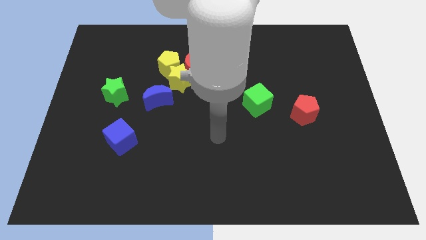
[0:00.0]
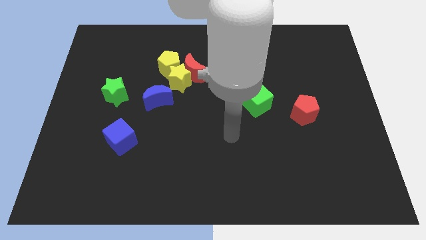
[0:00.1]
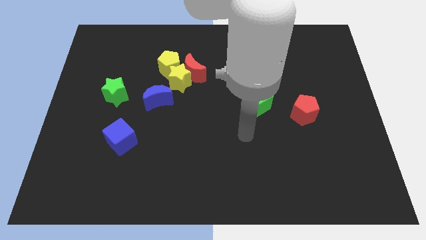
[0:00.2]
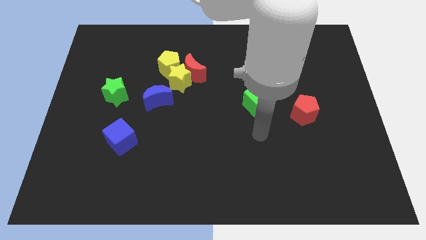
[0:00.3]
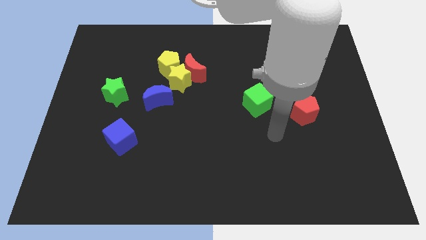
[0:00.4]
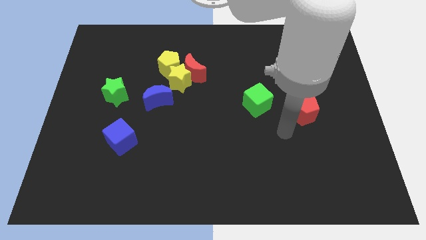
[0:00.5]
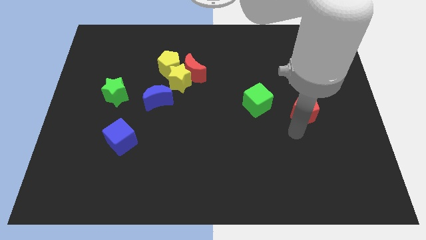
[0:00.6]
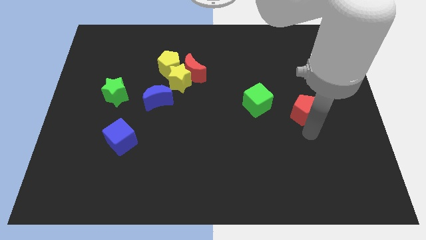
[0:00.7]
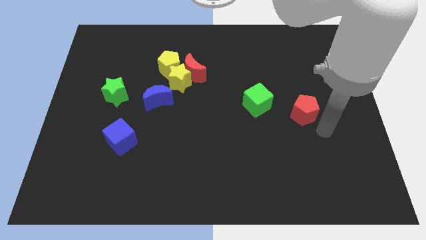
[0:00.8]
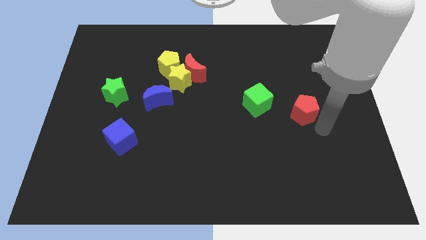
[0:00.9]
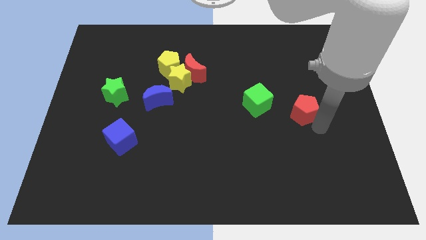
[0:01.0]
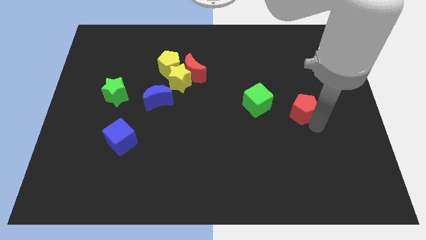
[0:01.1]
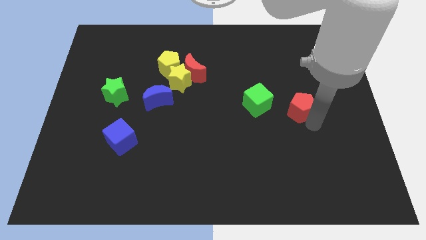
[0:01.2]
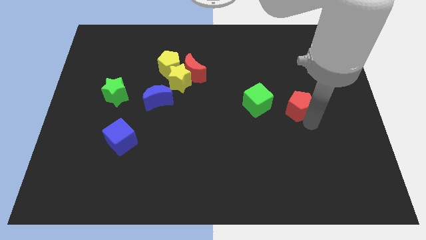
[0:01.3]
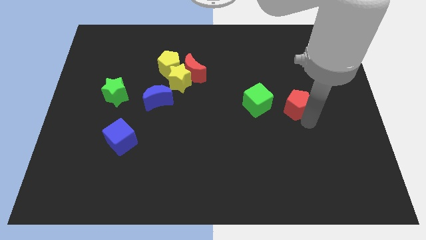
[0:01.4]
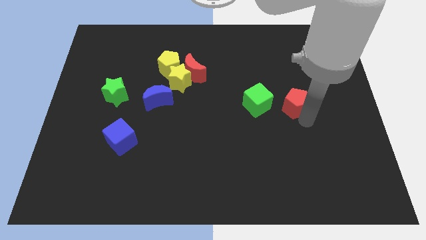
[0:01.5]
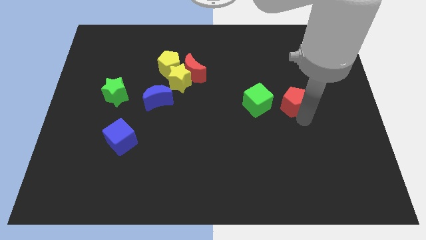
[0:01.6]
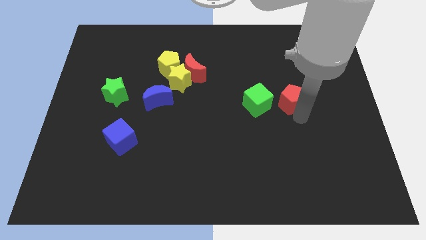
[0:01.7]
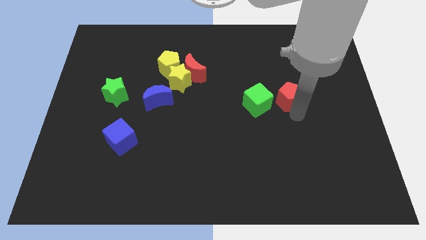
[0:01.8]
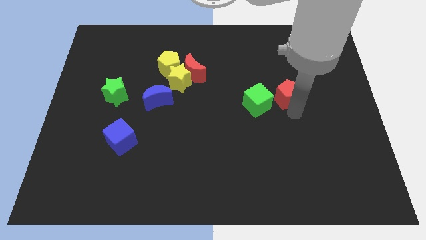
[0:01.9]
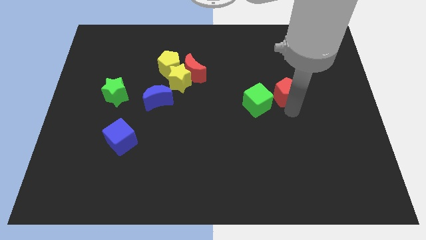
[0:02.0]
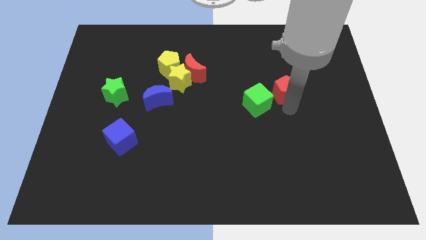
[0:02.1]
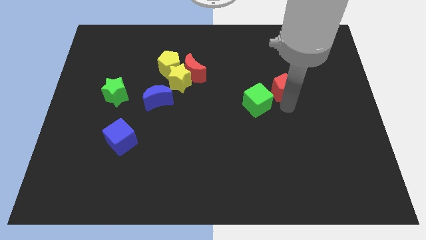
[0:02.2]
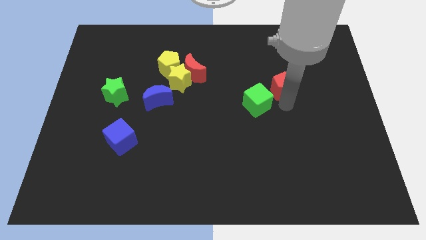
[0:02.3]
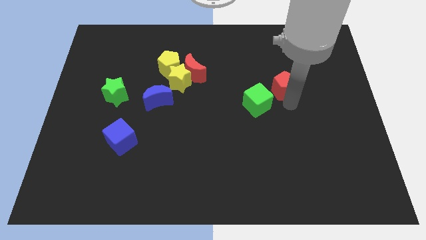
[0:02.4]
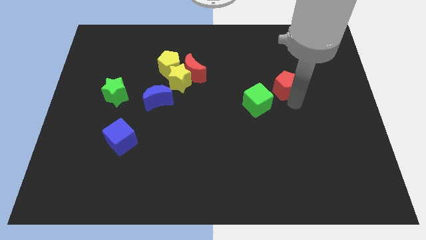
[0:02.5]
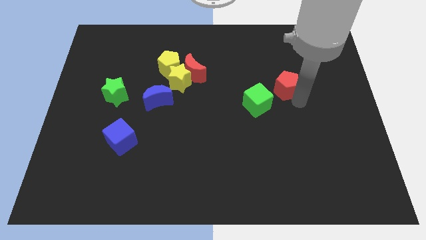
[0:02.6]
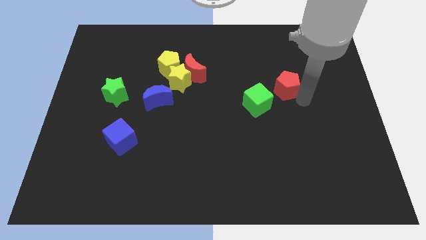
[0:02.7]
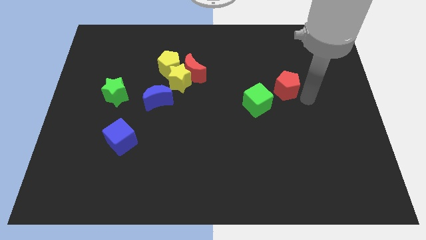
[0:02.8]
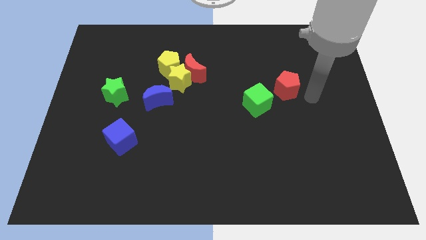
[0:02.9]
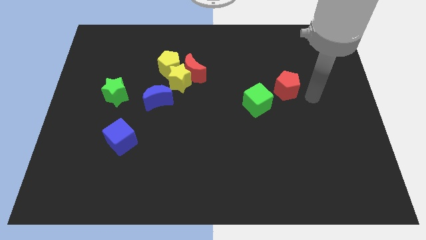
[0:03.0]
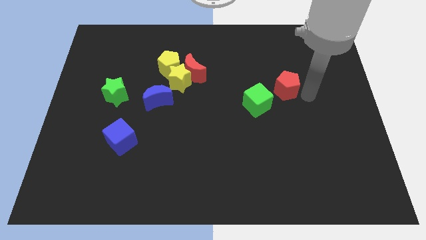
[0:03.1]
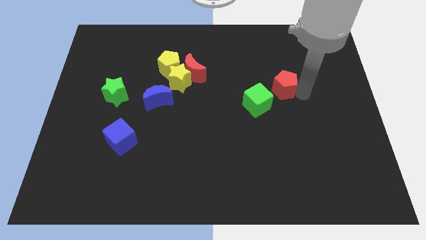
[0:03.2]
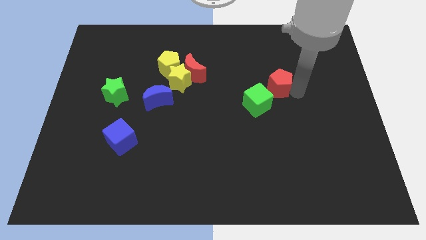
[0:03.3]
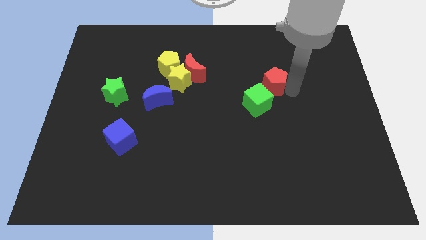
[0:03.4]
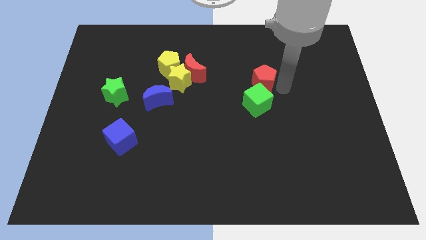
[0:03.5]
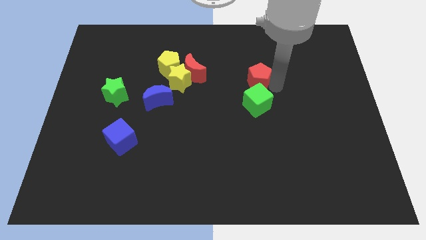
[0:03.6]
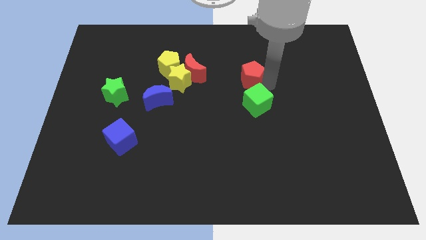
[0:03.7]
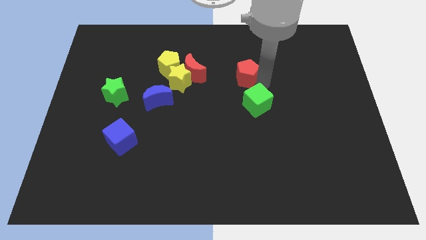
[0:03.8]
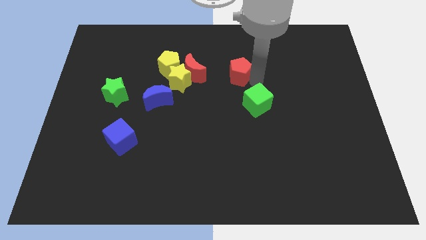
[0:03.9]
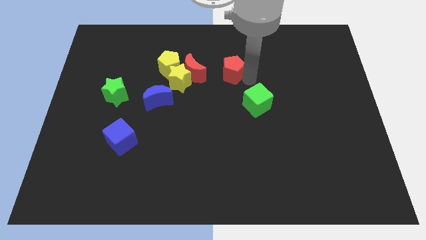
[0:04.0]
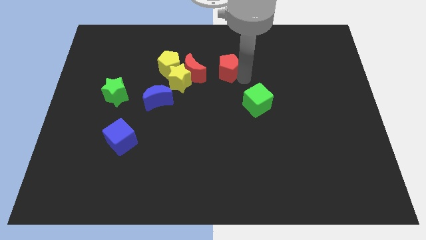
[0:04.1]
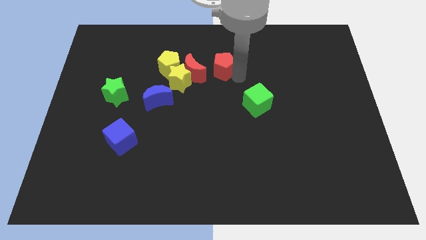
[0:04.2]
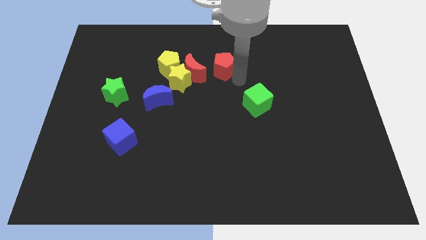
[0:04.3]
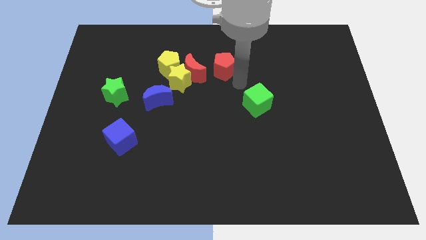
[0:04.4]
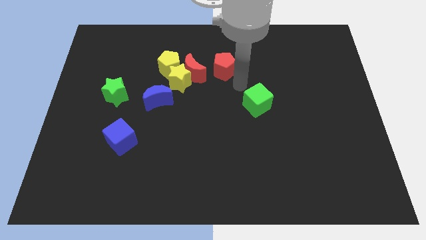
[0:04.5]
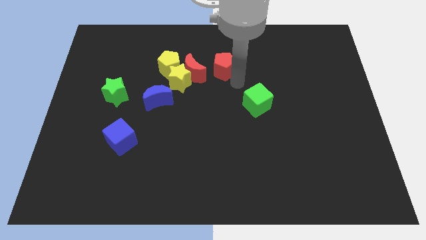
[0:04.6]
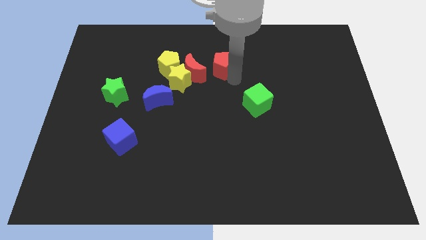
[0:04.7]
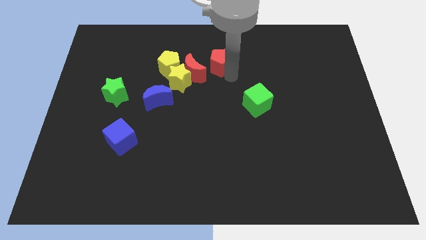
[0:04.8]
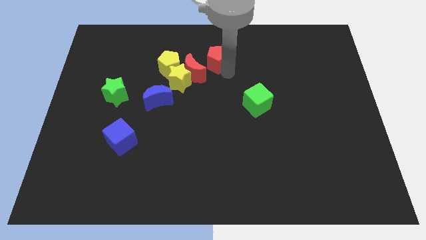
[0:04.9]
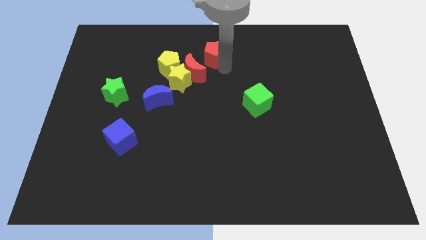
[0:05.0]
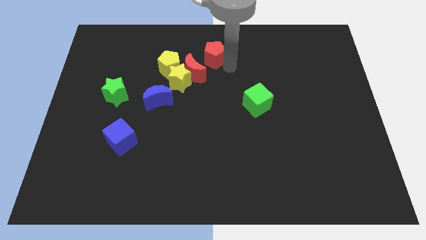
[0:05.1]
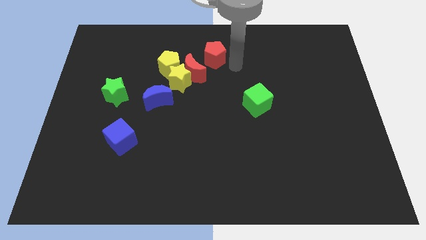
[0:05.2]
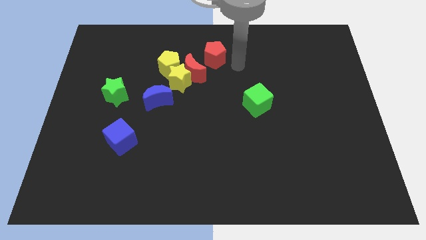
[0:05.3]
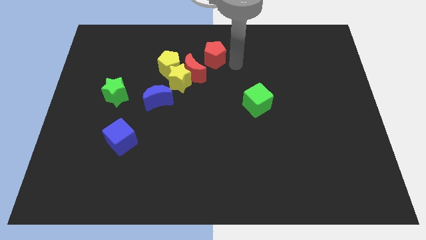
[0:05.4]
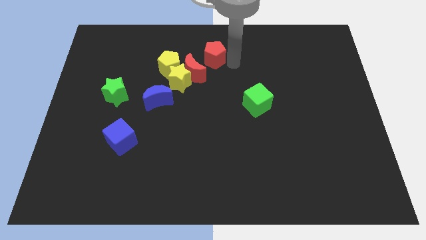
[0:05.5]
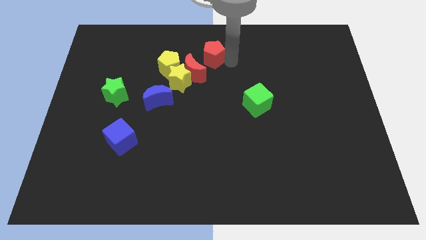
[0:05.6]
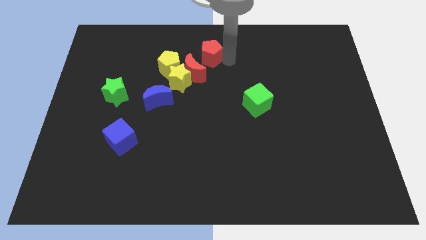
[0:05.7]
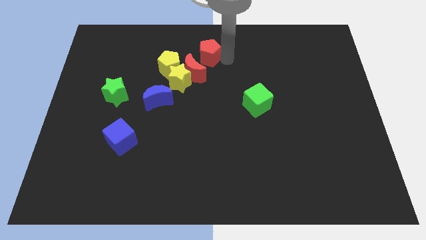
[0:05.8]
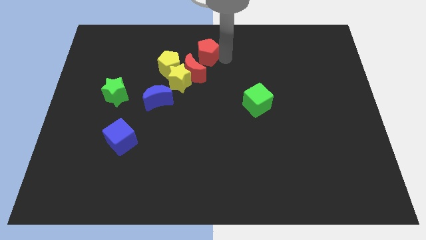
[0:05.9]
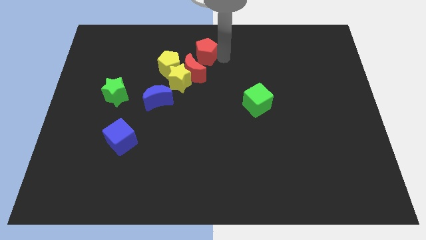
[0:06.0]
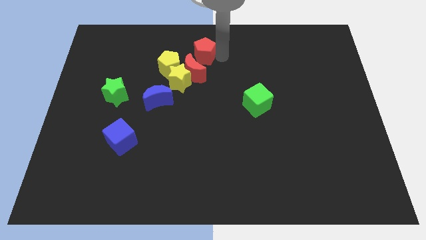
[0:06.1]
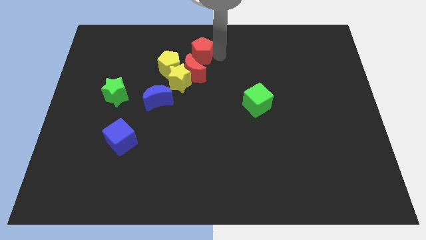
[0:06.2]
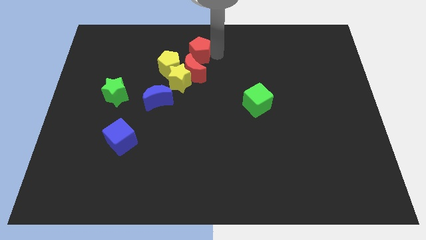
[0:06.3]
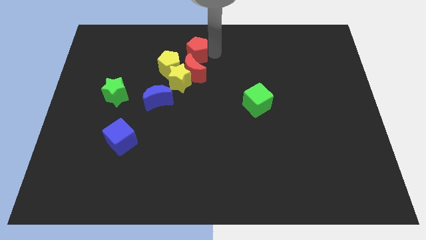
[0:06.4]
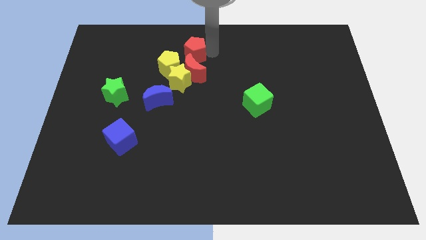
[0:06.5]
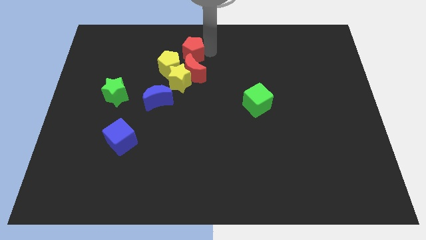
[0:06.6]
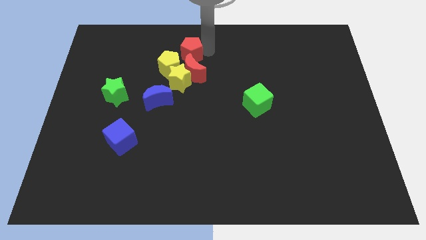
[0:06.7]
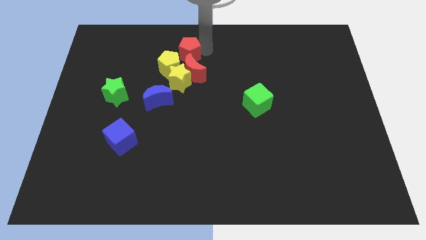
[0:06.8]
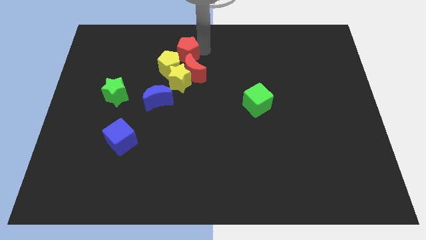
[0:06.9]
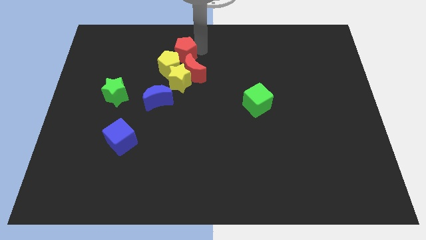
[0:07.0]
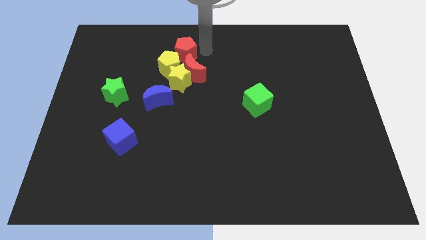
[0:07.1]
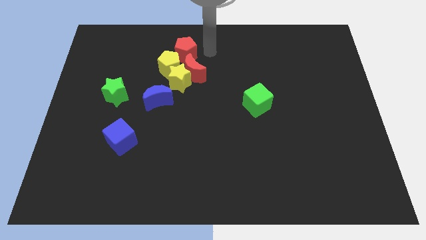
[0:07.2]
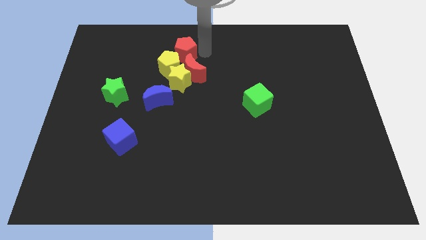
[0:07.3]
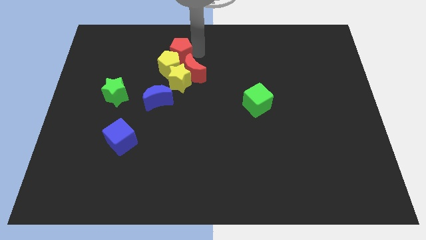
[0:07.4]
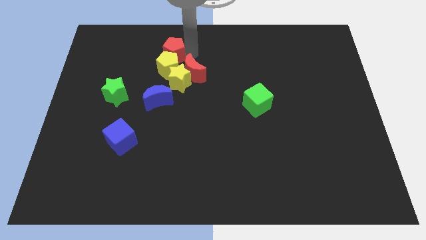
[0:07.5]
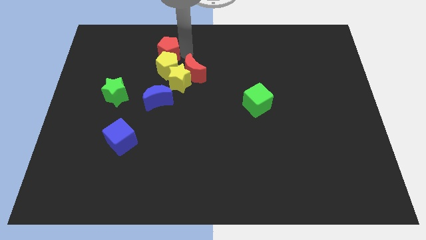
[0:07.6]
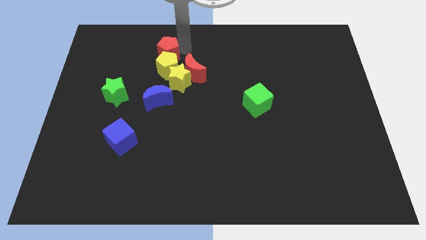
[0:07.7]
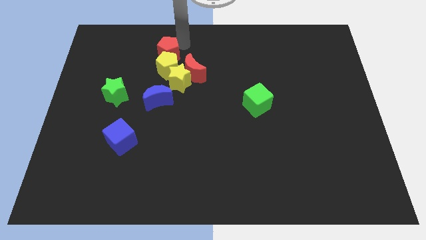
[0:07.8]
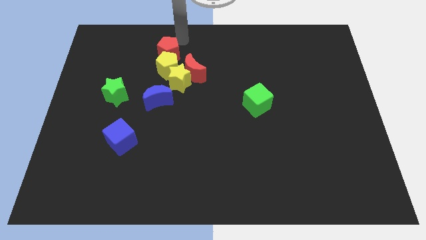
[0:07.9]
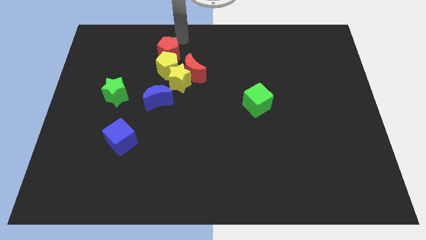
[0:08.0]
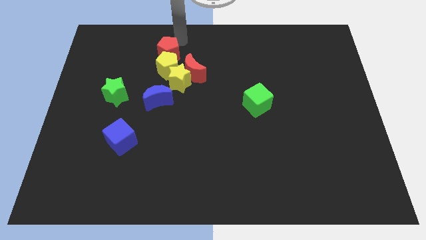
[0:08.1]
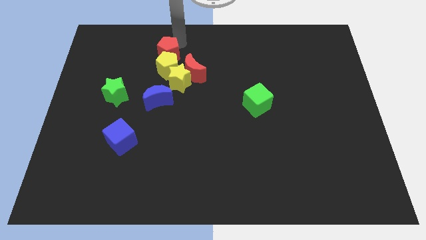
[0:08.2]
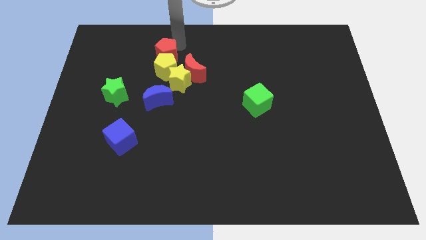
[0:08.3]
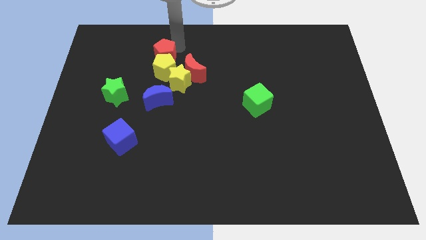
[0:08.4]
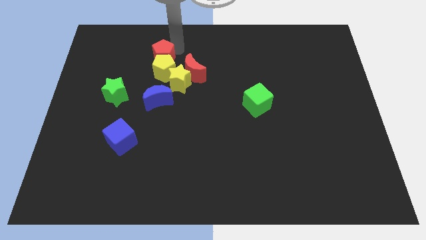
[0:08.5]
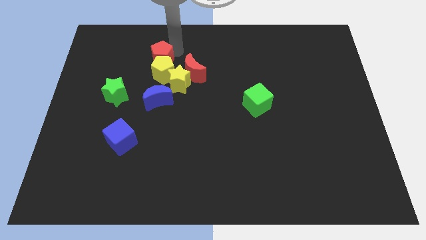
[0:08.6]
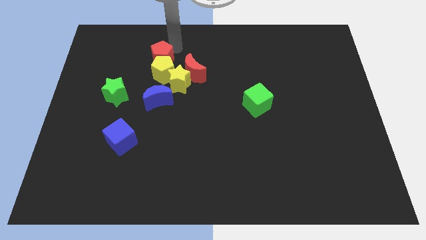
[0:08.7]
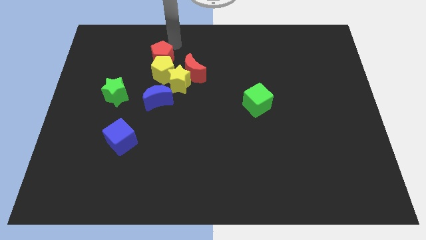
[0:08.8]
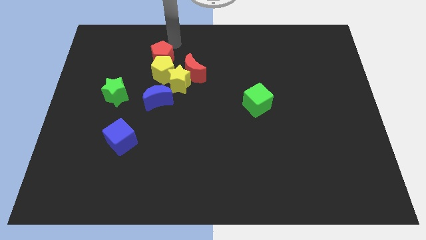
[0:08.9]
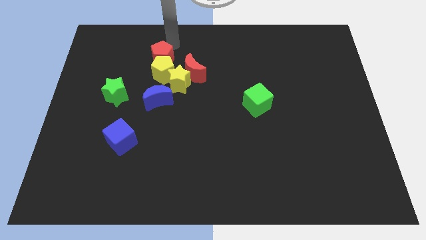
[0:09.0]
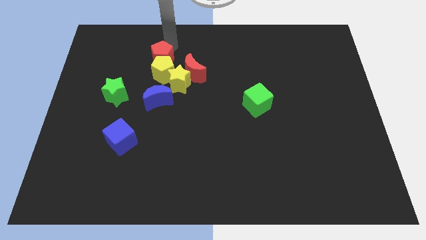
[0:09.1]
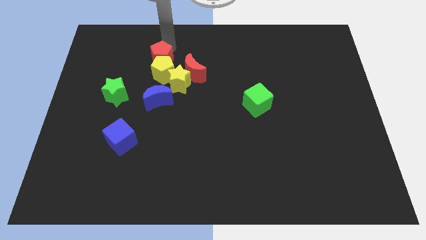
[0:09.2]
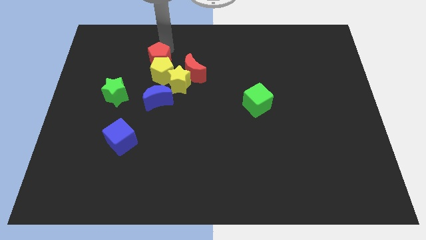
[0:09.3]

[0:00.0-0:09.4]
slide the red pentagon to the left side of the red moon
